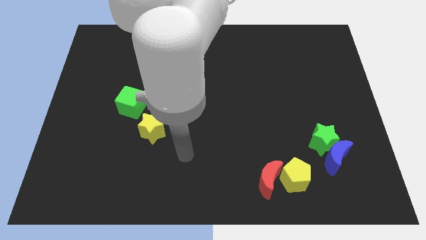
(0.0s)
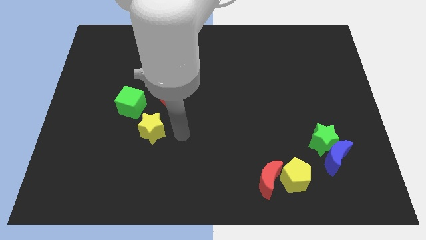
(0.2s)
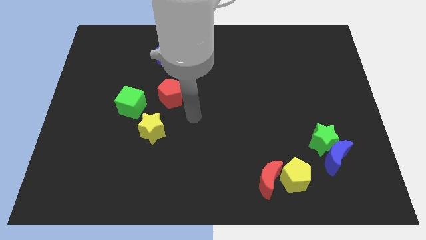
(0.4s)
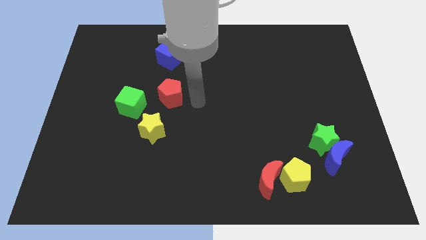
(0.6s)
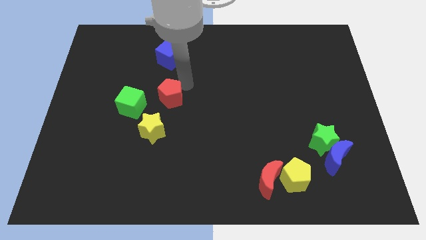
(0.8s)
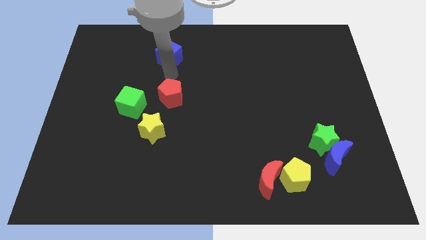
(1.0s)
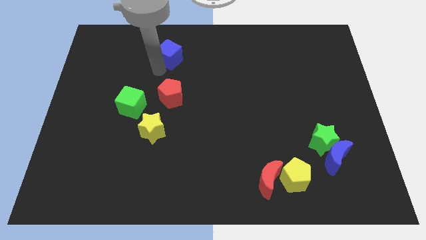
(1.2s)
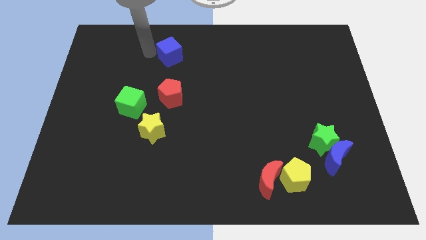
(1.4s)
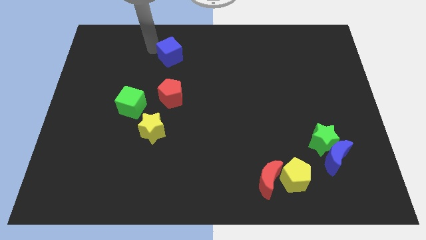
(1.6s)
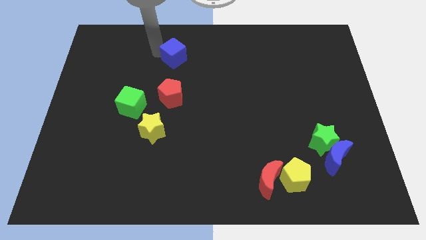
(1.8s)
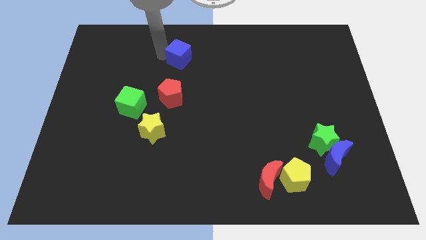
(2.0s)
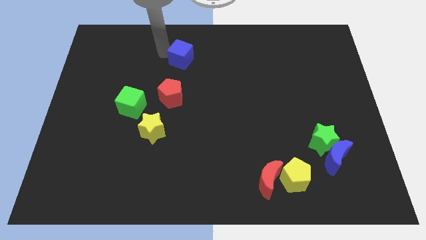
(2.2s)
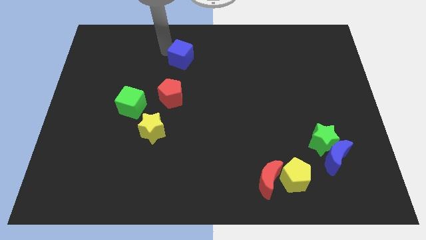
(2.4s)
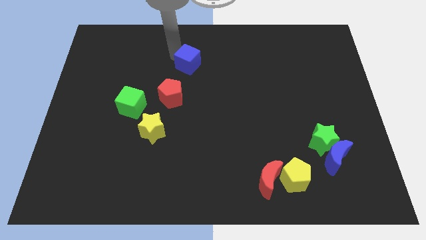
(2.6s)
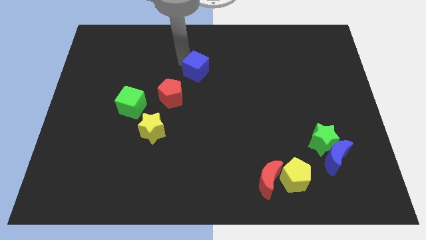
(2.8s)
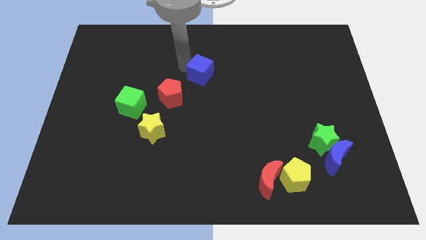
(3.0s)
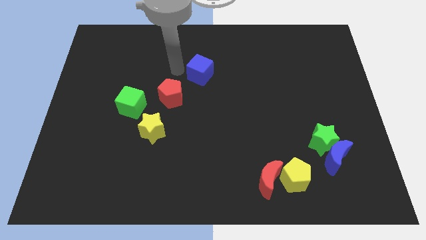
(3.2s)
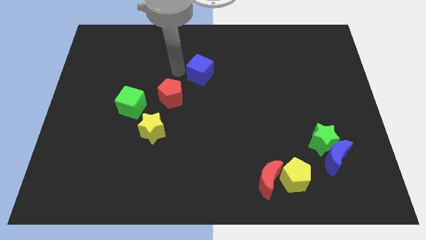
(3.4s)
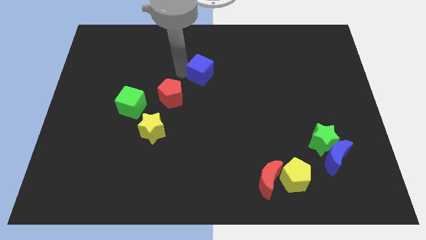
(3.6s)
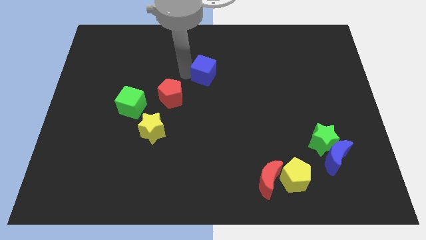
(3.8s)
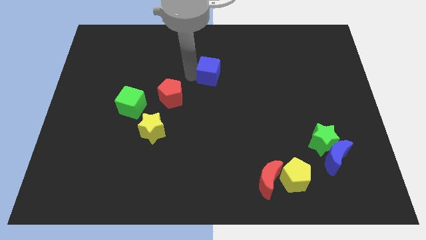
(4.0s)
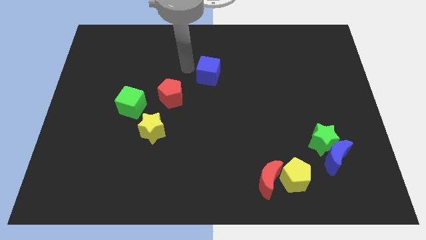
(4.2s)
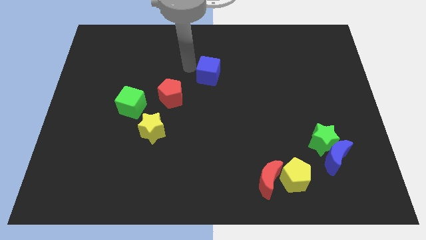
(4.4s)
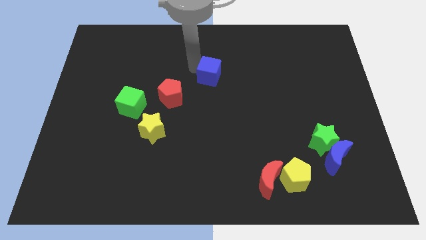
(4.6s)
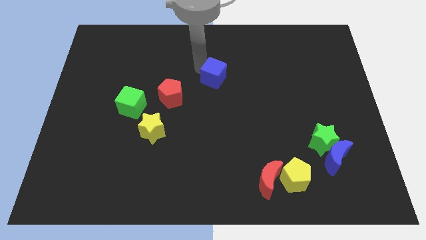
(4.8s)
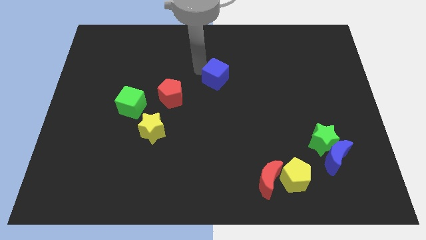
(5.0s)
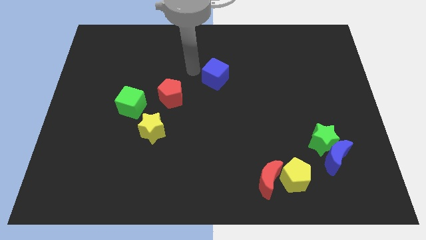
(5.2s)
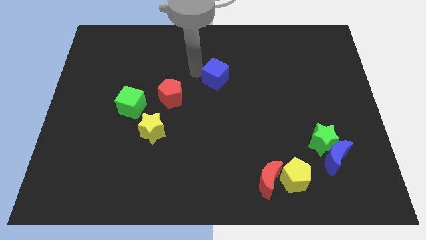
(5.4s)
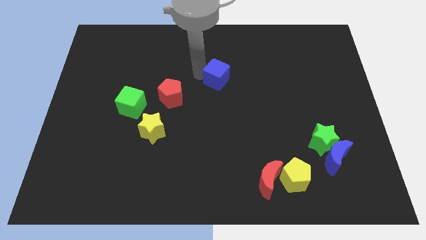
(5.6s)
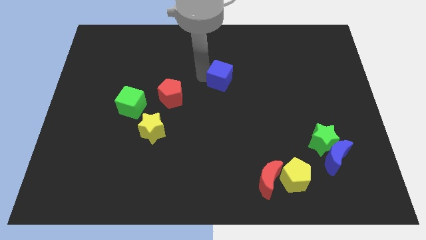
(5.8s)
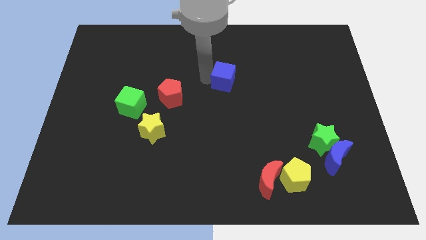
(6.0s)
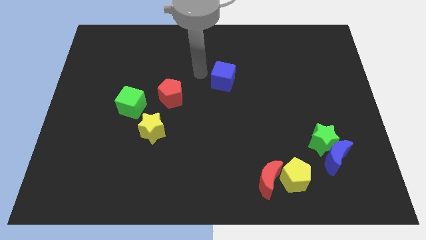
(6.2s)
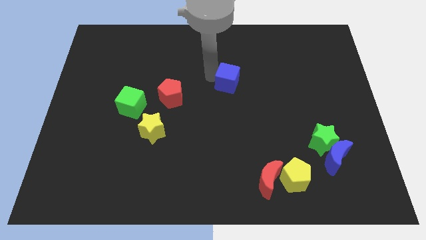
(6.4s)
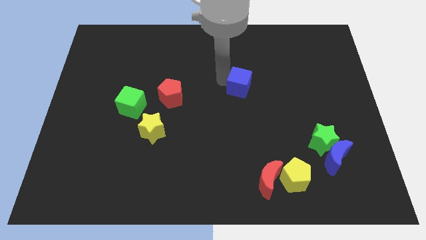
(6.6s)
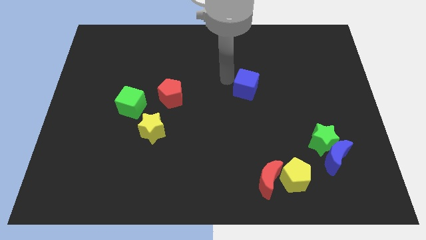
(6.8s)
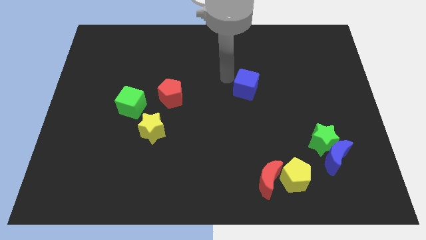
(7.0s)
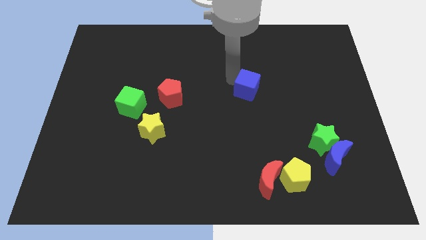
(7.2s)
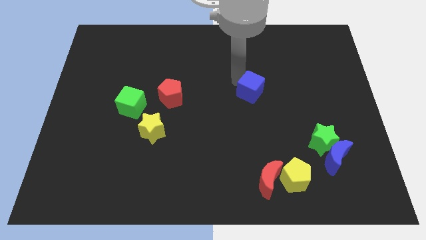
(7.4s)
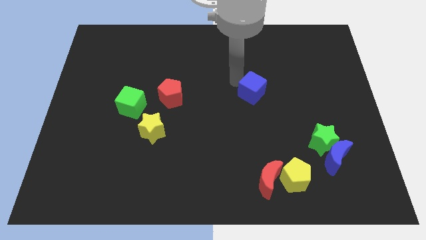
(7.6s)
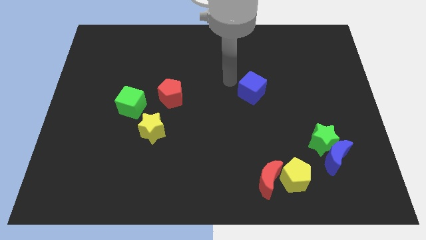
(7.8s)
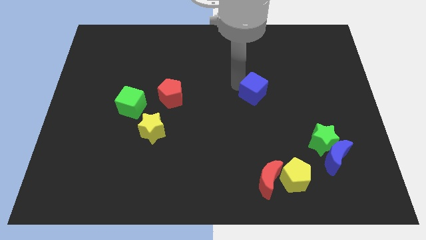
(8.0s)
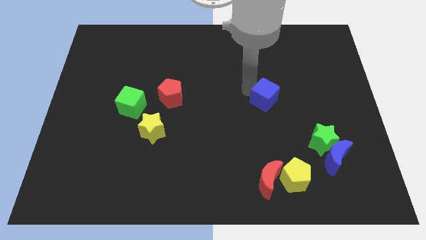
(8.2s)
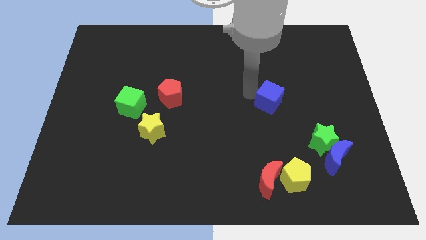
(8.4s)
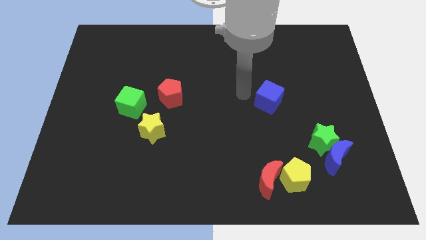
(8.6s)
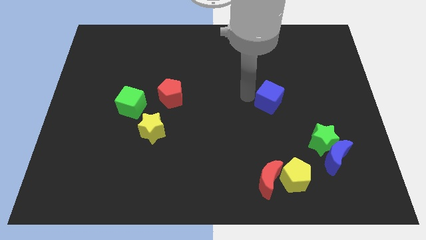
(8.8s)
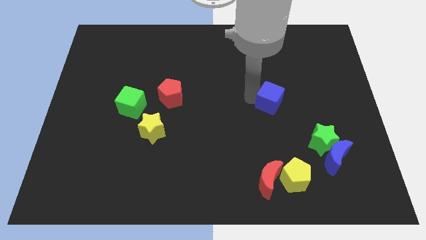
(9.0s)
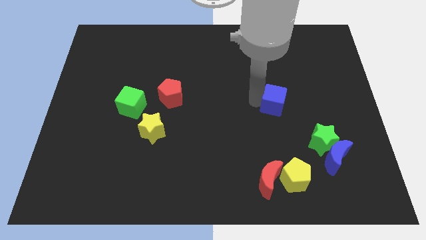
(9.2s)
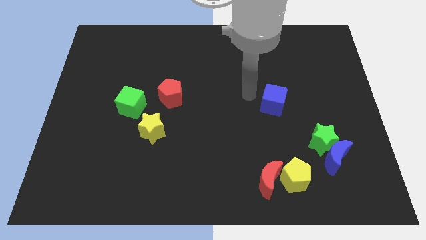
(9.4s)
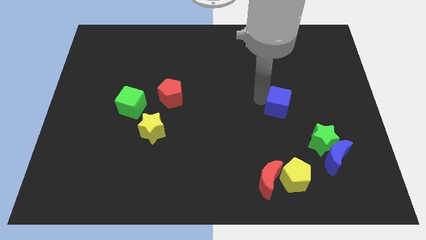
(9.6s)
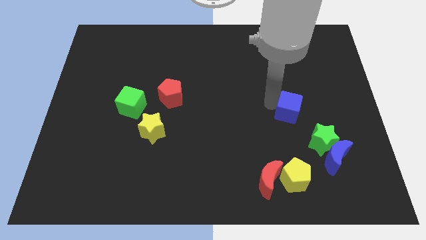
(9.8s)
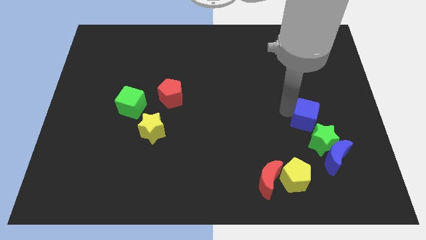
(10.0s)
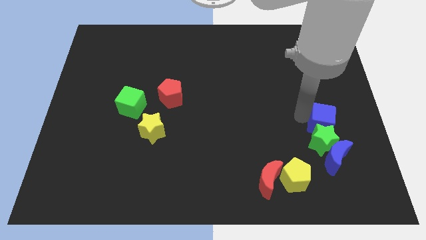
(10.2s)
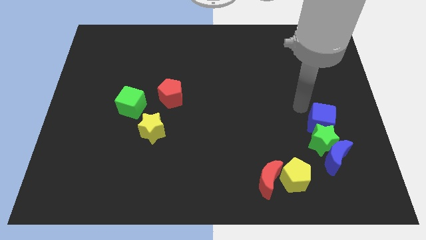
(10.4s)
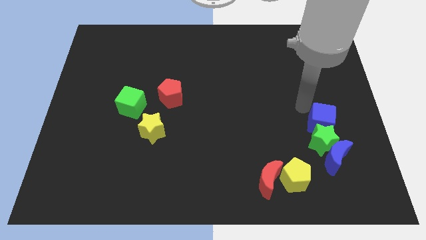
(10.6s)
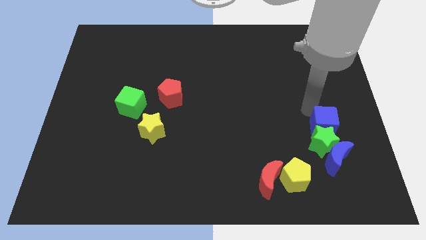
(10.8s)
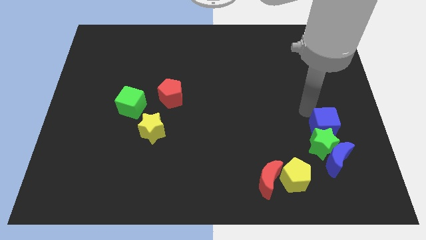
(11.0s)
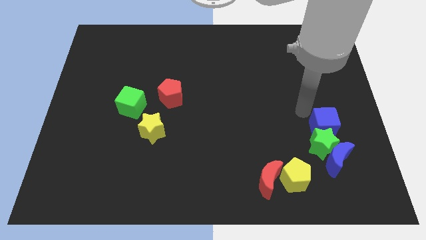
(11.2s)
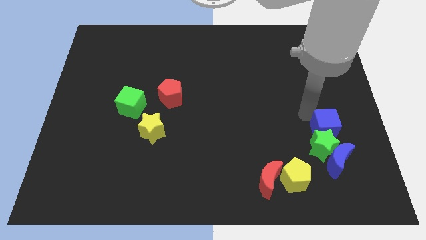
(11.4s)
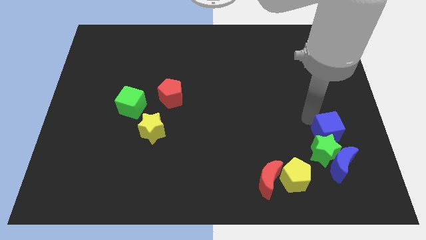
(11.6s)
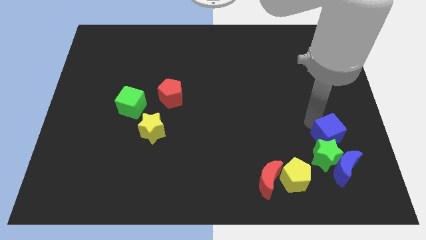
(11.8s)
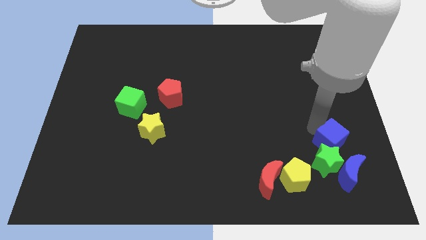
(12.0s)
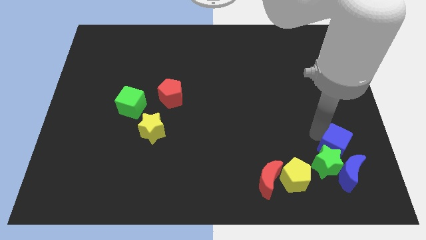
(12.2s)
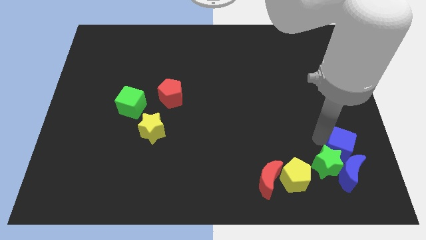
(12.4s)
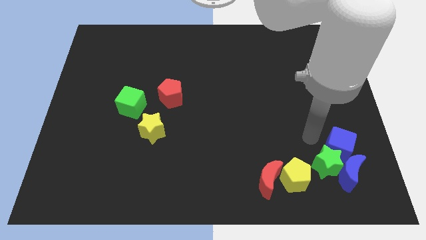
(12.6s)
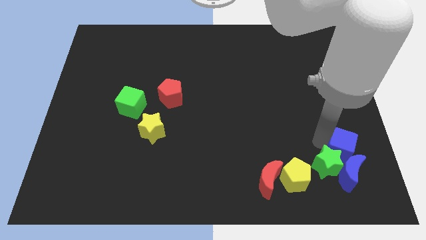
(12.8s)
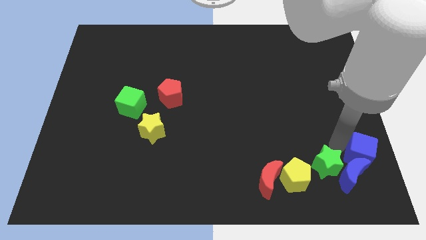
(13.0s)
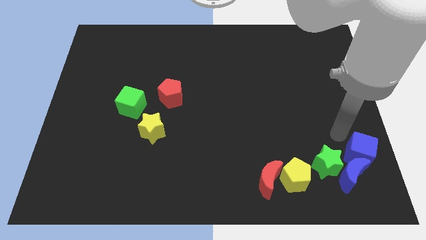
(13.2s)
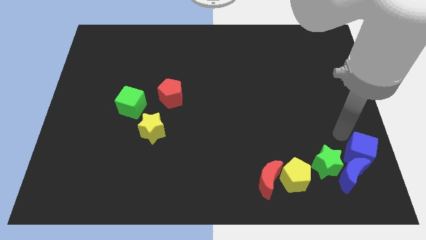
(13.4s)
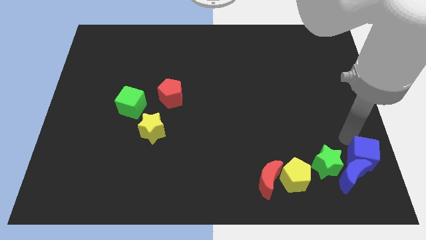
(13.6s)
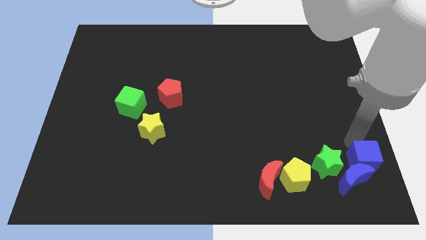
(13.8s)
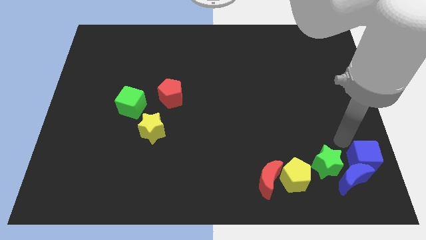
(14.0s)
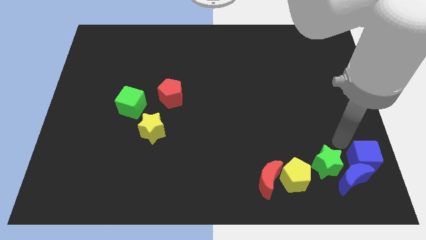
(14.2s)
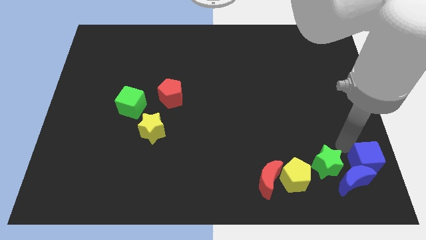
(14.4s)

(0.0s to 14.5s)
move the blue cube to the lower right corner
